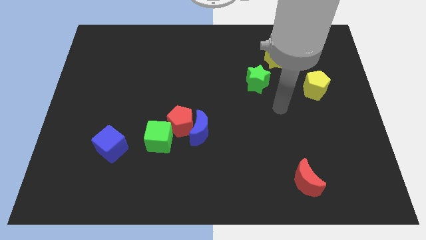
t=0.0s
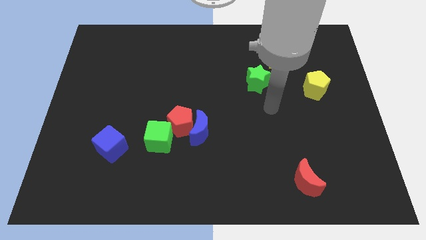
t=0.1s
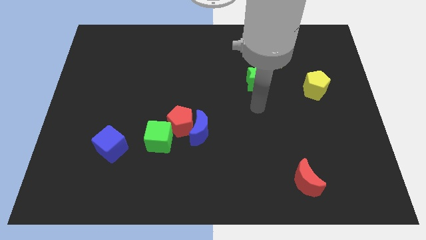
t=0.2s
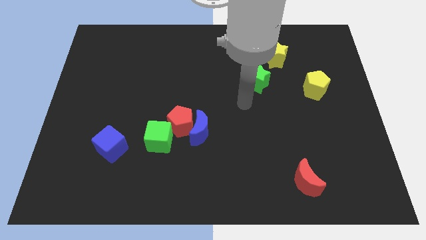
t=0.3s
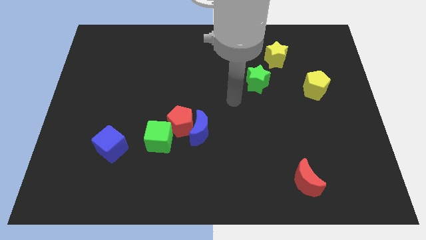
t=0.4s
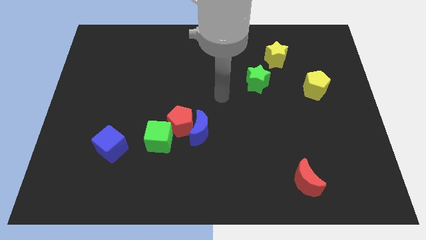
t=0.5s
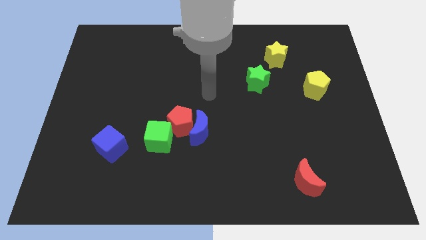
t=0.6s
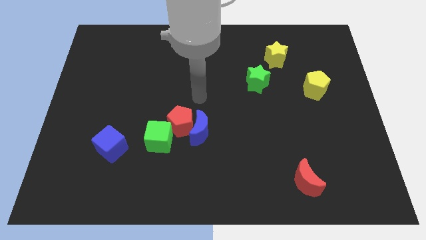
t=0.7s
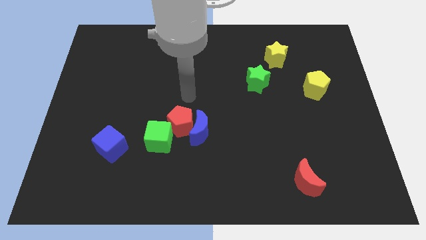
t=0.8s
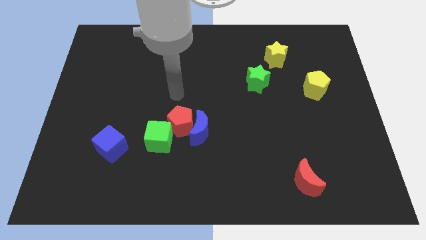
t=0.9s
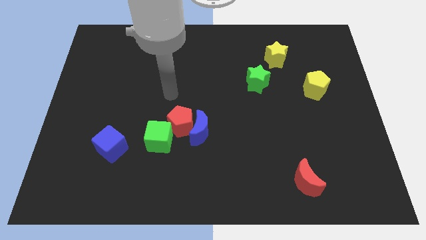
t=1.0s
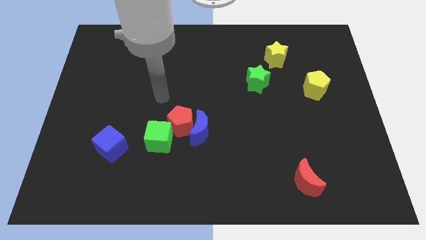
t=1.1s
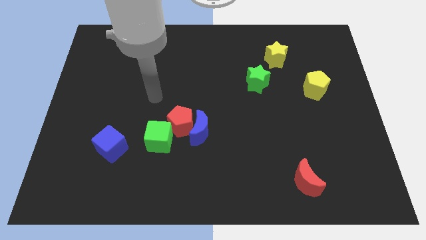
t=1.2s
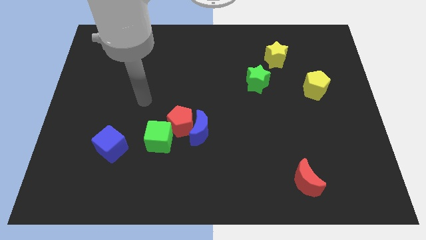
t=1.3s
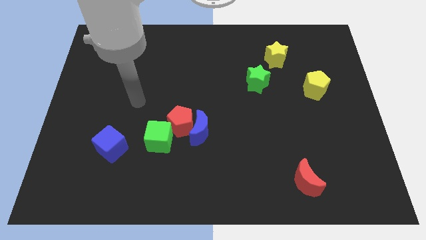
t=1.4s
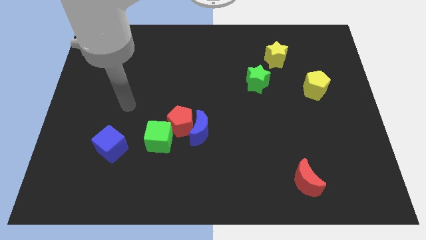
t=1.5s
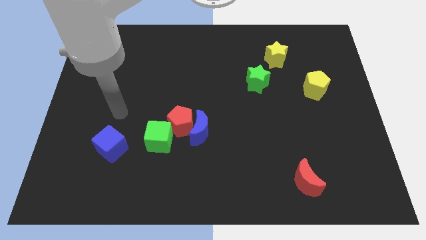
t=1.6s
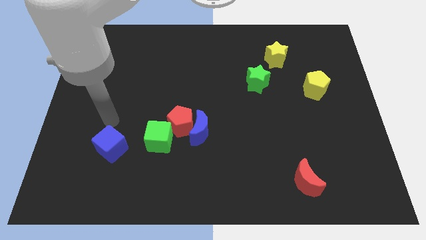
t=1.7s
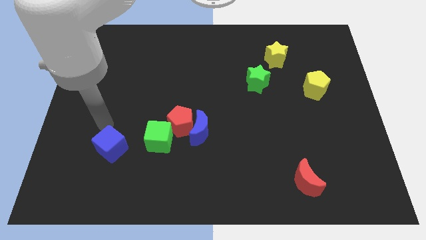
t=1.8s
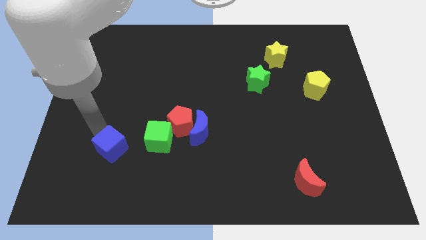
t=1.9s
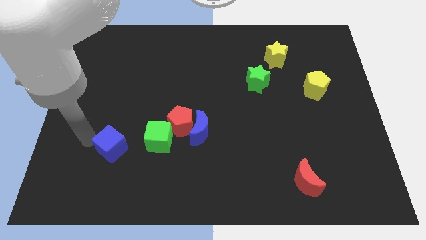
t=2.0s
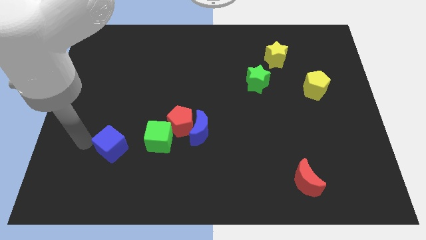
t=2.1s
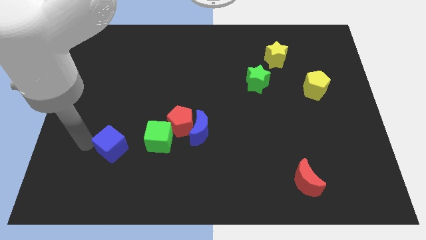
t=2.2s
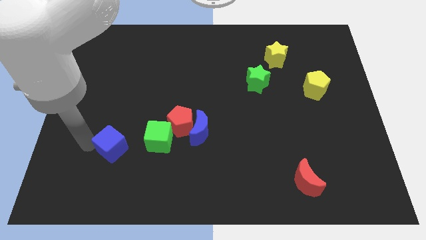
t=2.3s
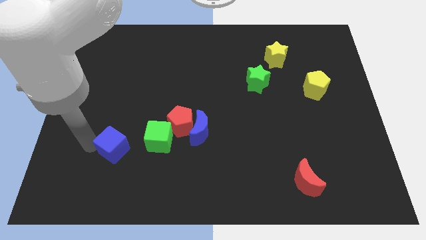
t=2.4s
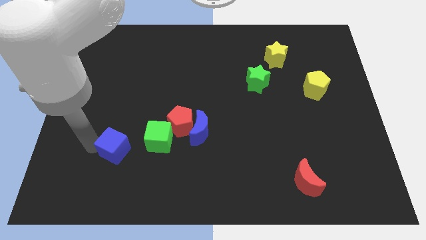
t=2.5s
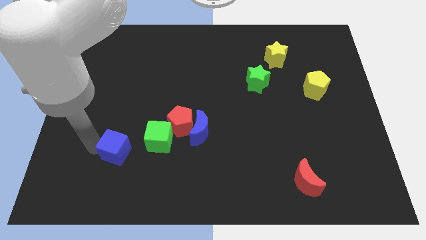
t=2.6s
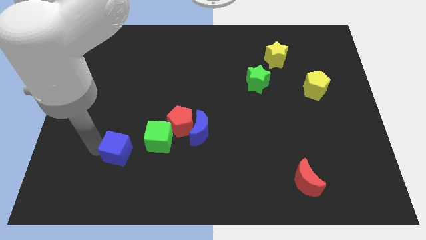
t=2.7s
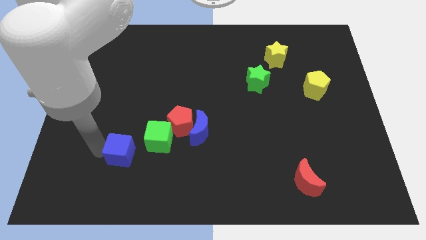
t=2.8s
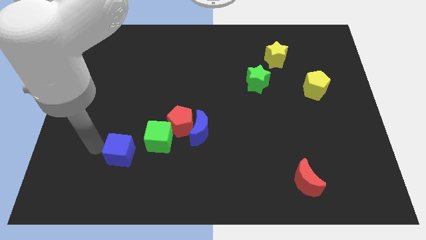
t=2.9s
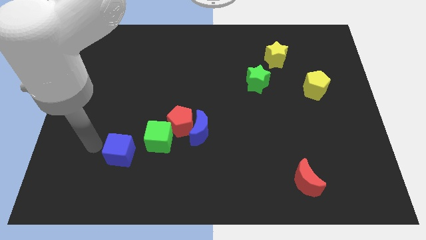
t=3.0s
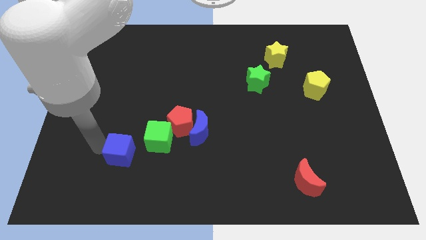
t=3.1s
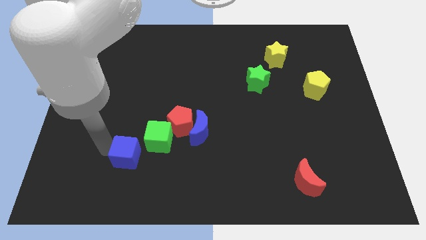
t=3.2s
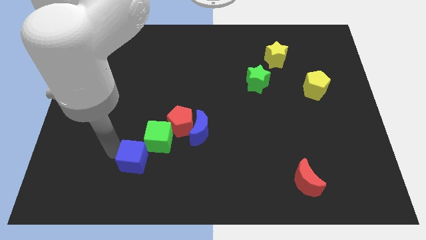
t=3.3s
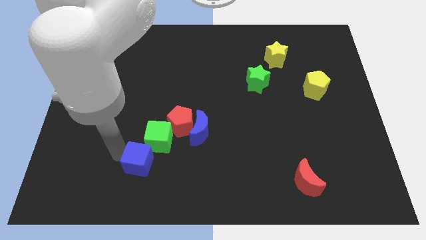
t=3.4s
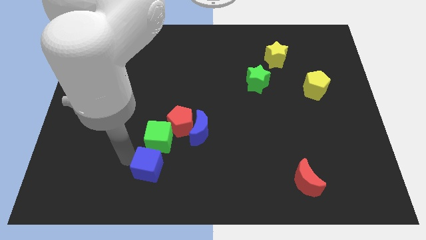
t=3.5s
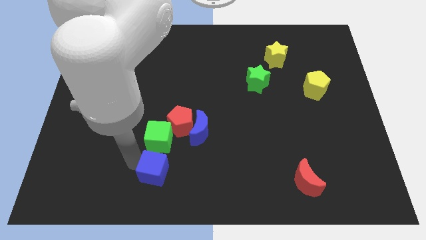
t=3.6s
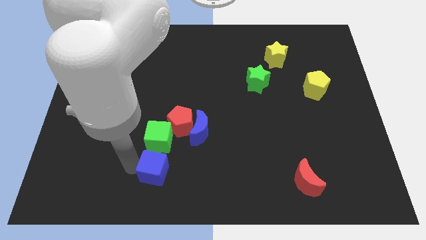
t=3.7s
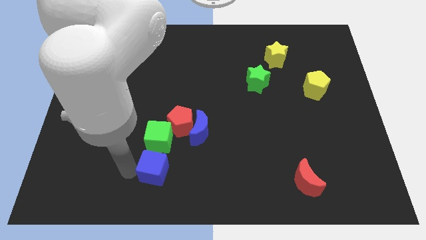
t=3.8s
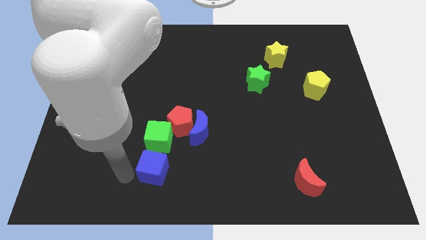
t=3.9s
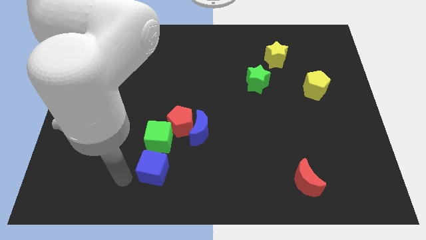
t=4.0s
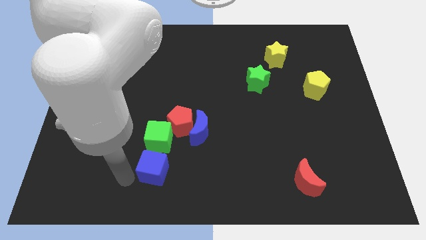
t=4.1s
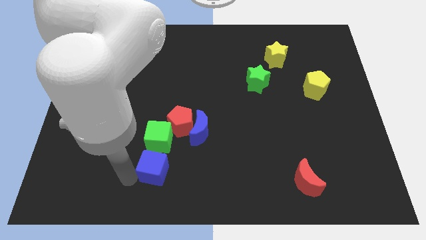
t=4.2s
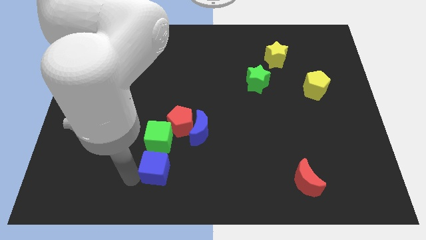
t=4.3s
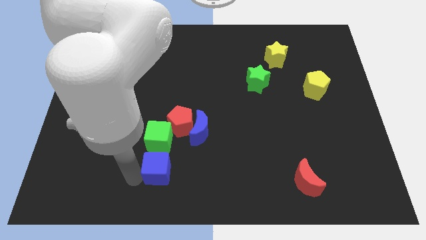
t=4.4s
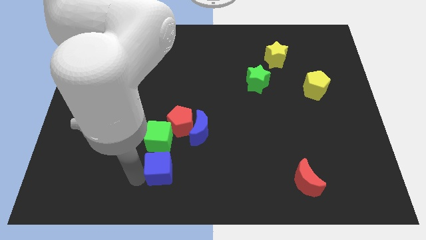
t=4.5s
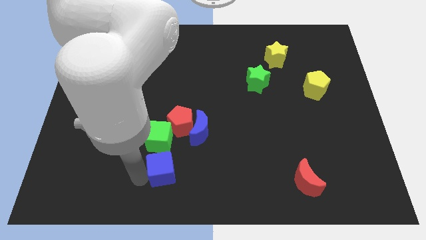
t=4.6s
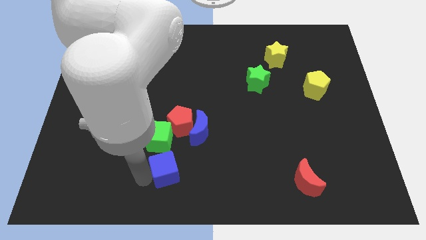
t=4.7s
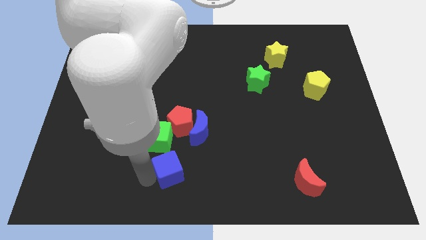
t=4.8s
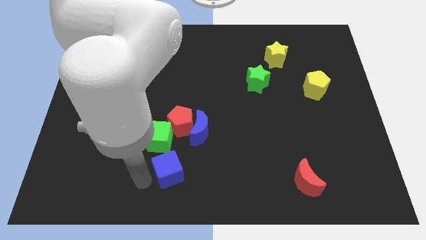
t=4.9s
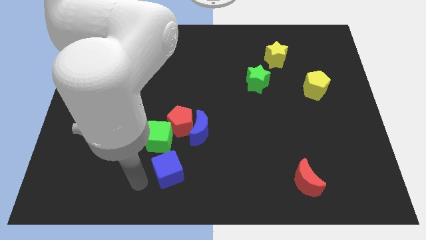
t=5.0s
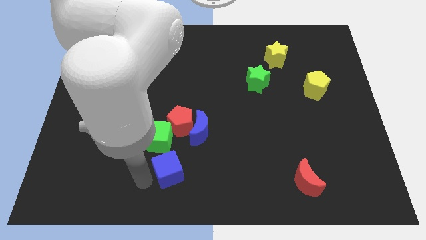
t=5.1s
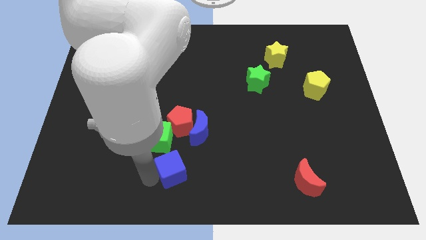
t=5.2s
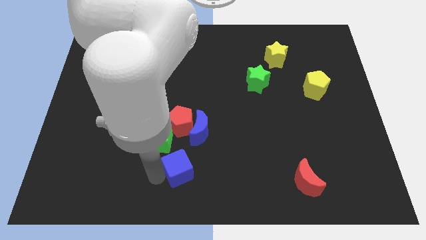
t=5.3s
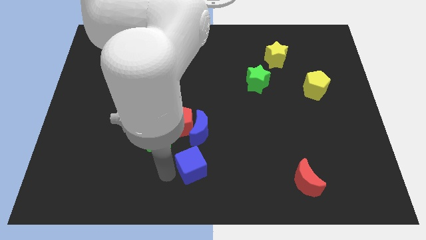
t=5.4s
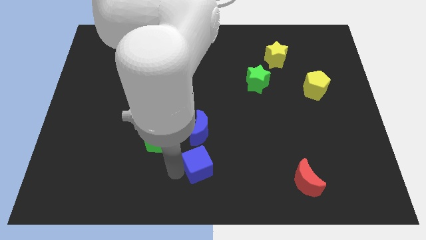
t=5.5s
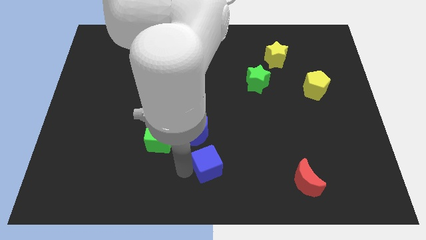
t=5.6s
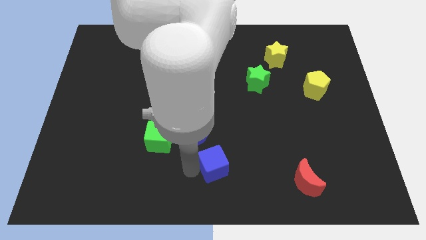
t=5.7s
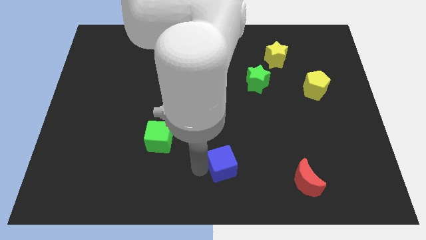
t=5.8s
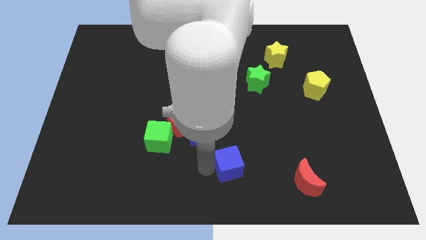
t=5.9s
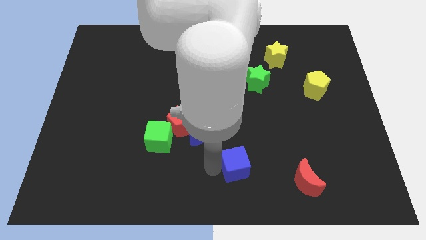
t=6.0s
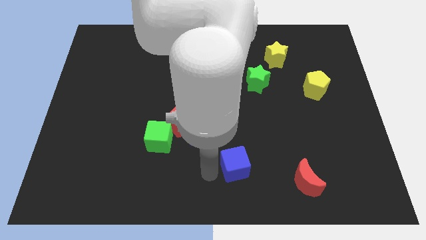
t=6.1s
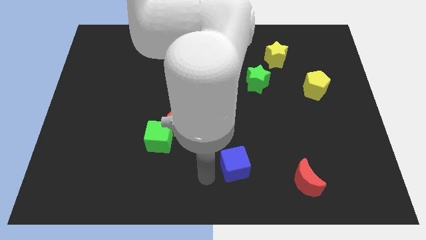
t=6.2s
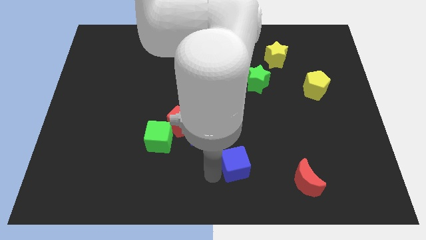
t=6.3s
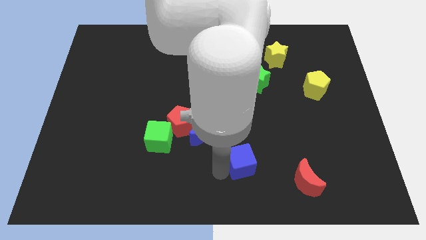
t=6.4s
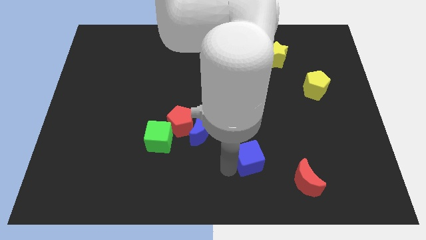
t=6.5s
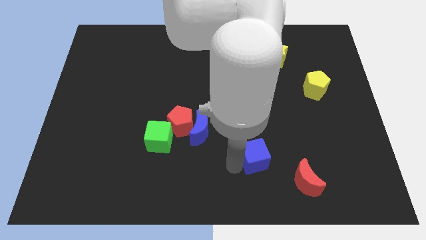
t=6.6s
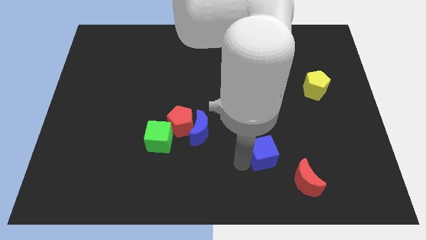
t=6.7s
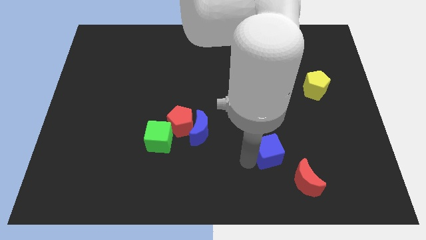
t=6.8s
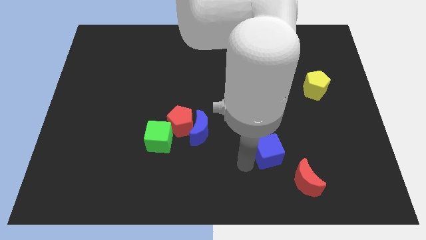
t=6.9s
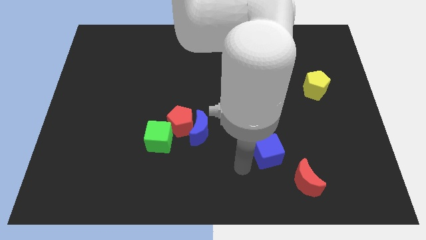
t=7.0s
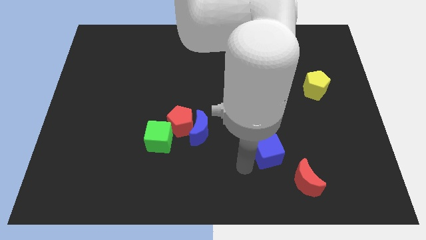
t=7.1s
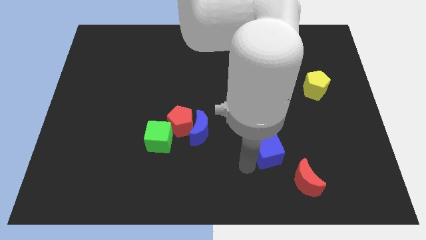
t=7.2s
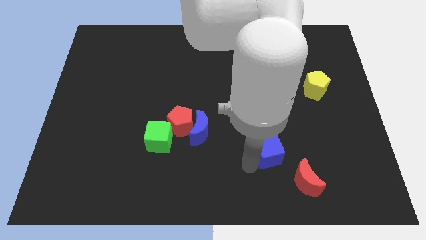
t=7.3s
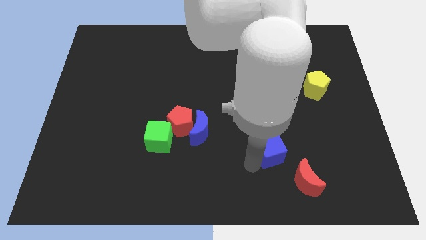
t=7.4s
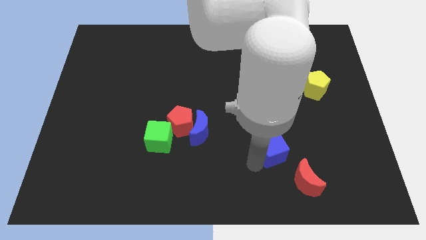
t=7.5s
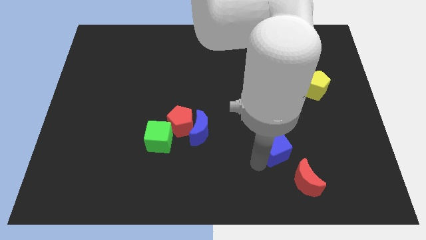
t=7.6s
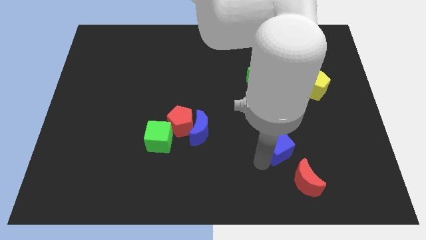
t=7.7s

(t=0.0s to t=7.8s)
put the blue cube above the red moon
